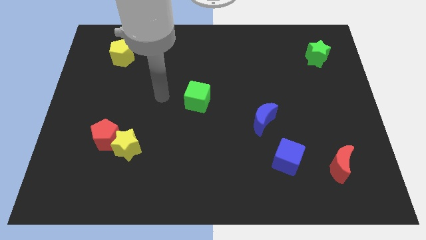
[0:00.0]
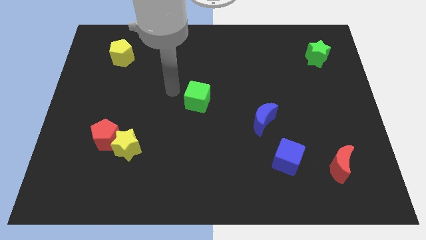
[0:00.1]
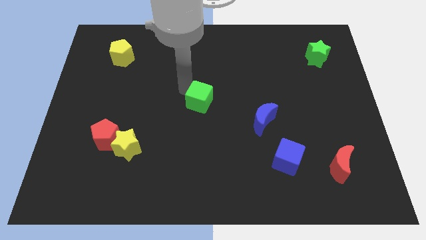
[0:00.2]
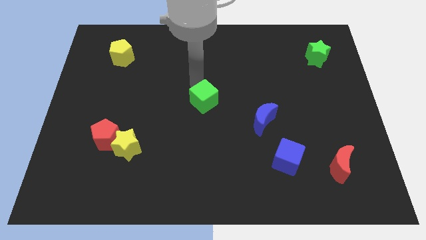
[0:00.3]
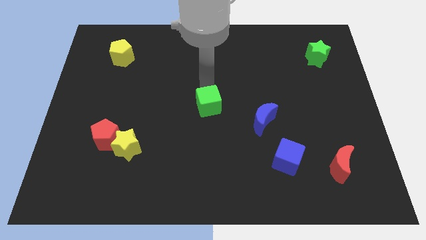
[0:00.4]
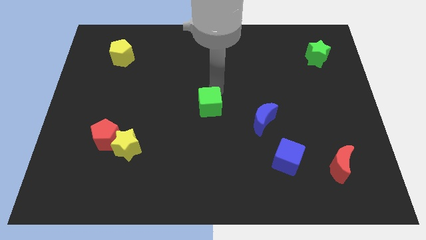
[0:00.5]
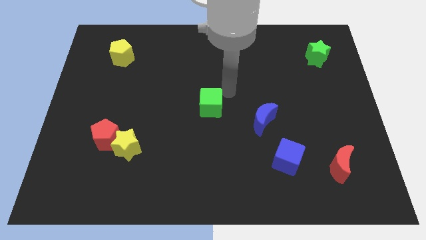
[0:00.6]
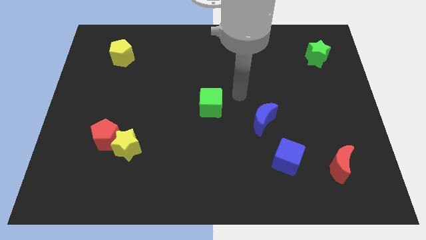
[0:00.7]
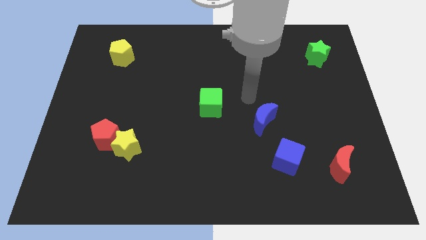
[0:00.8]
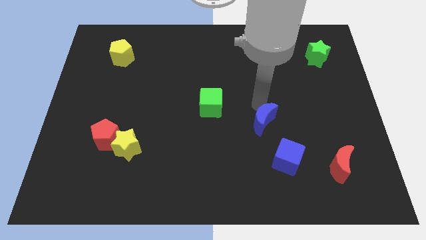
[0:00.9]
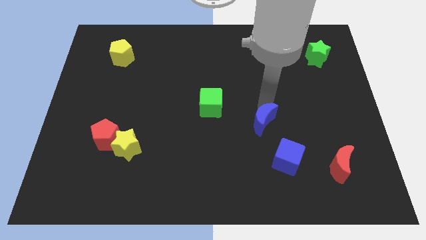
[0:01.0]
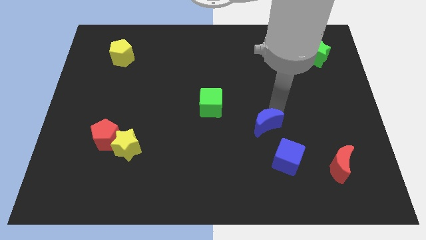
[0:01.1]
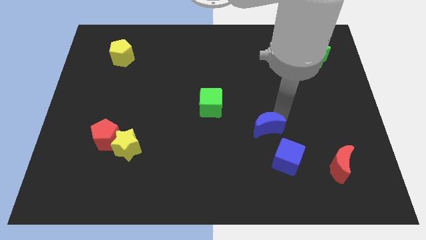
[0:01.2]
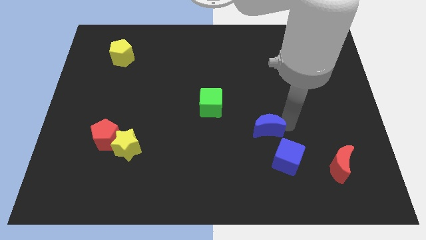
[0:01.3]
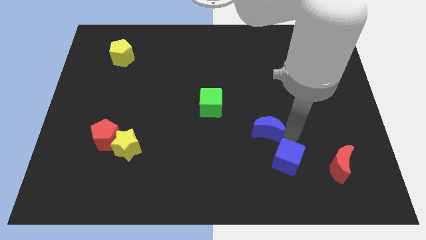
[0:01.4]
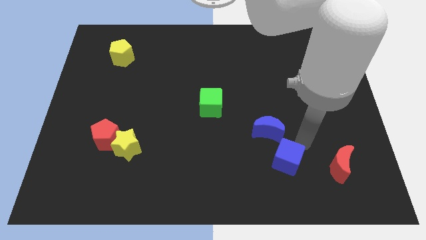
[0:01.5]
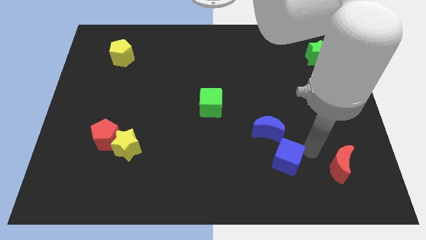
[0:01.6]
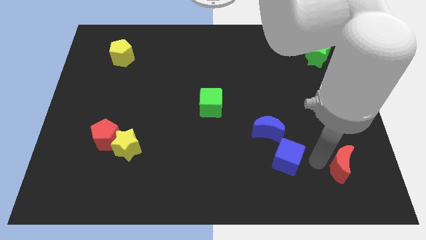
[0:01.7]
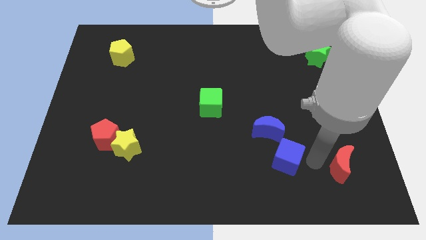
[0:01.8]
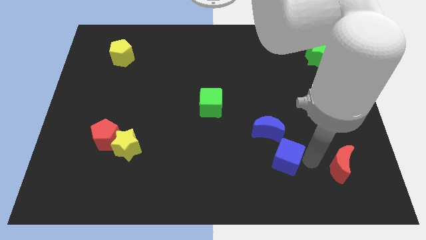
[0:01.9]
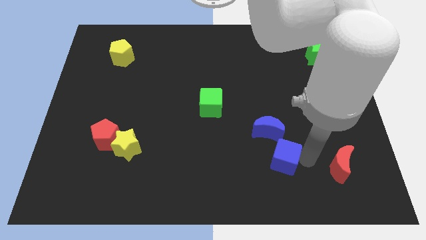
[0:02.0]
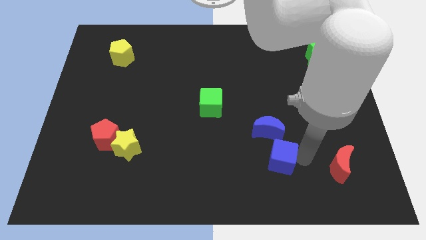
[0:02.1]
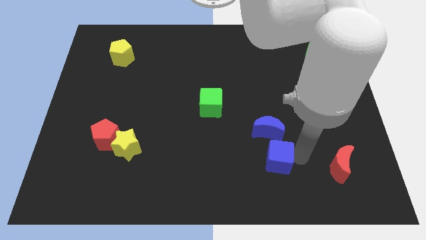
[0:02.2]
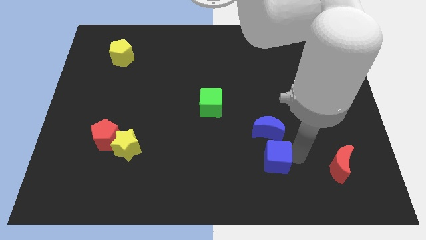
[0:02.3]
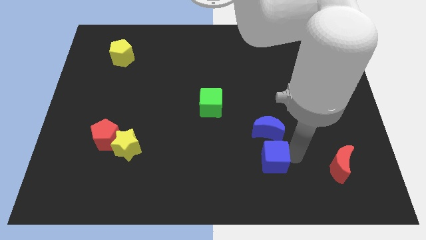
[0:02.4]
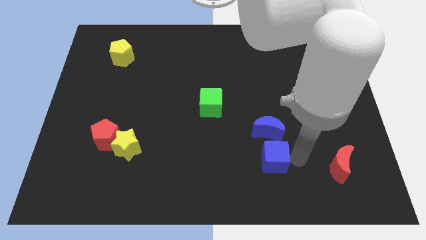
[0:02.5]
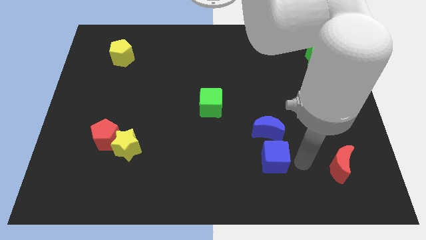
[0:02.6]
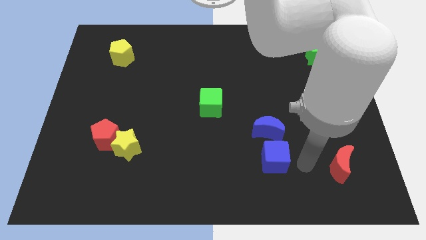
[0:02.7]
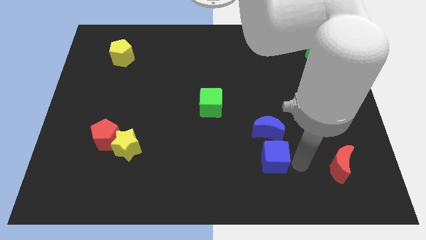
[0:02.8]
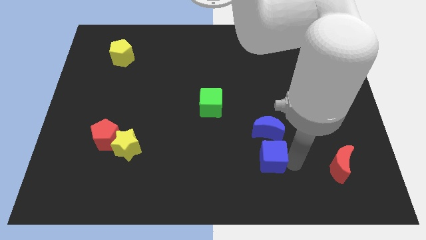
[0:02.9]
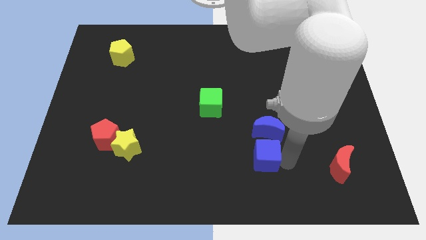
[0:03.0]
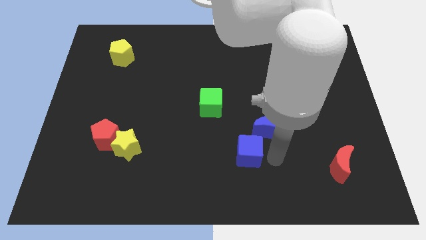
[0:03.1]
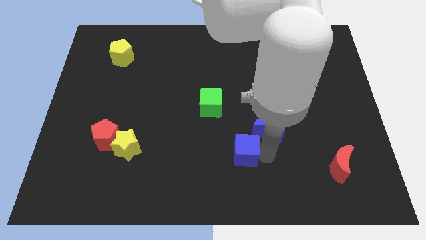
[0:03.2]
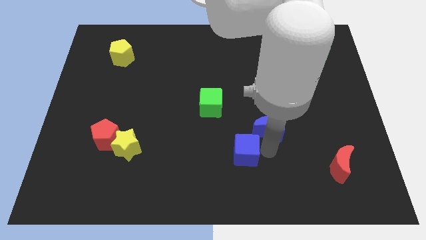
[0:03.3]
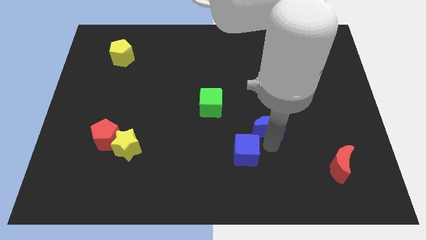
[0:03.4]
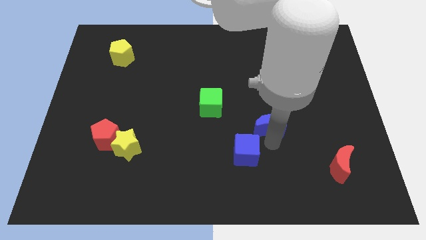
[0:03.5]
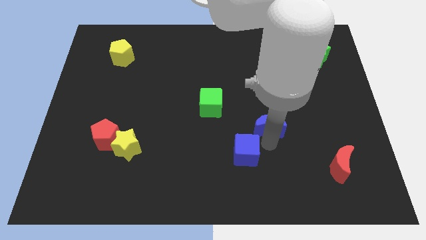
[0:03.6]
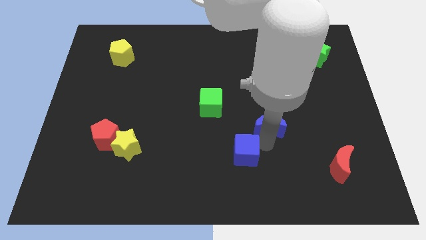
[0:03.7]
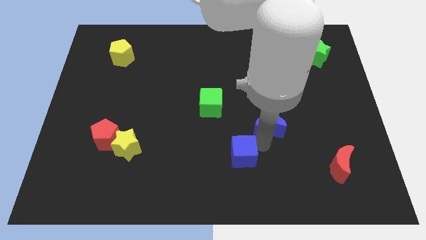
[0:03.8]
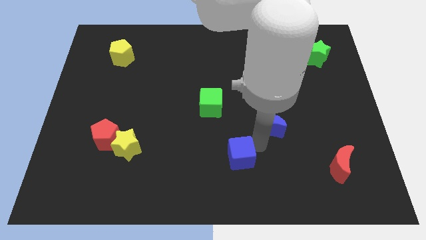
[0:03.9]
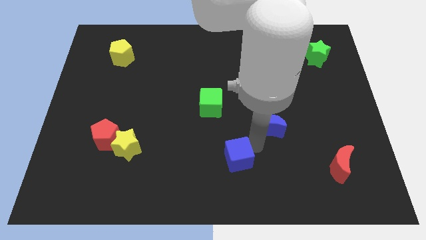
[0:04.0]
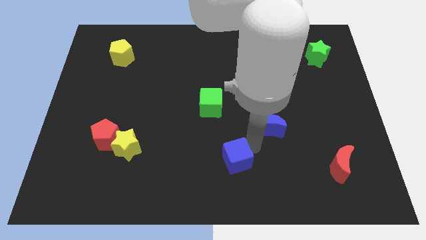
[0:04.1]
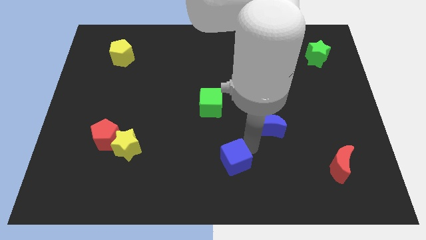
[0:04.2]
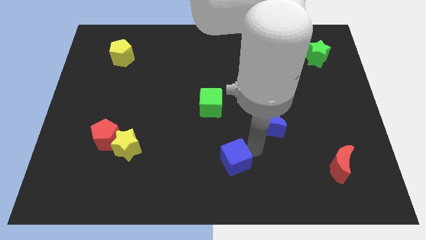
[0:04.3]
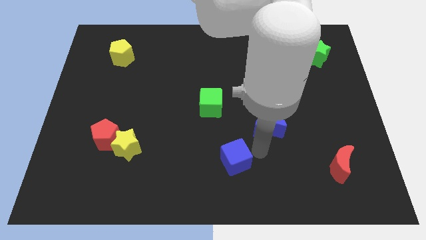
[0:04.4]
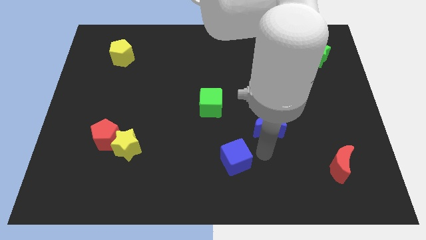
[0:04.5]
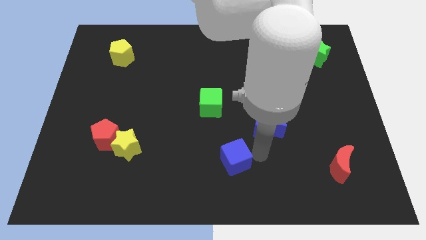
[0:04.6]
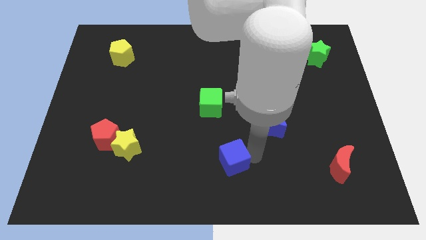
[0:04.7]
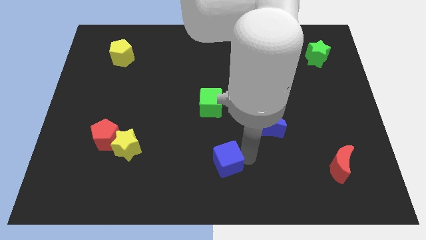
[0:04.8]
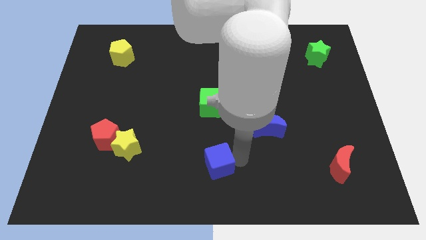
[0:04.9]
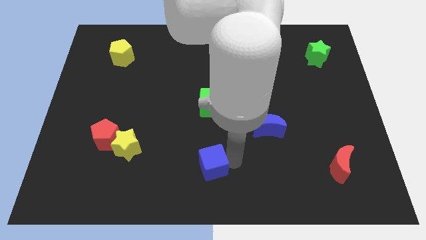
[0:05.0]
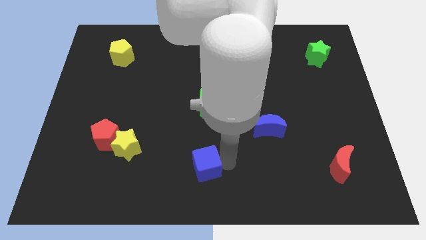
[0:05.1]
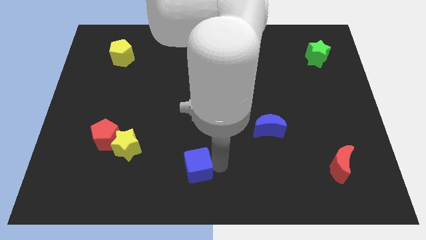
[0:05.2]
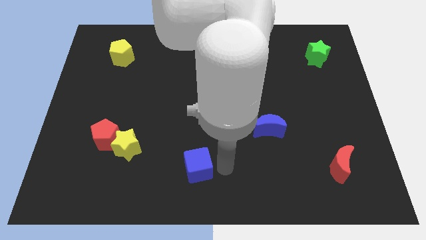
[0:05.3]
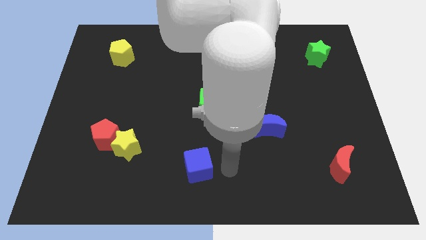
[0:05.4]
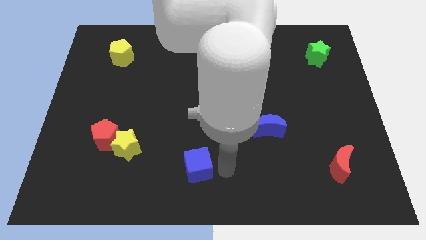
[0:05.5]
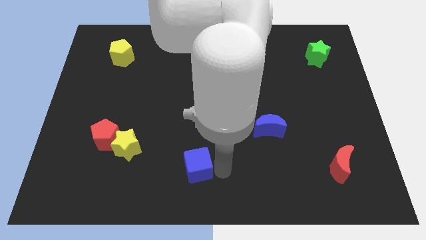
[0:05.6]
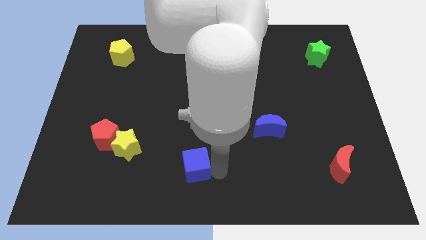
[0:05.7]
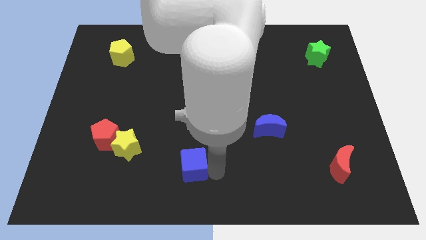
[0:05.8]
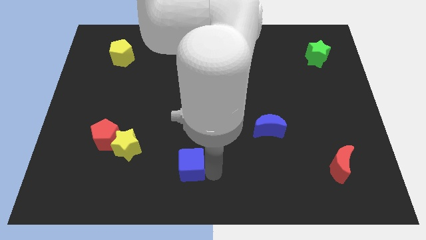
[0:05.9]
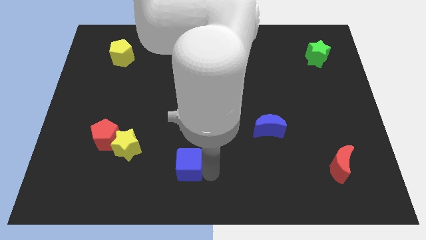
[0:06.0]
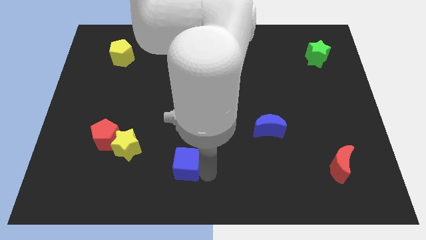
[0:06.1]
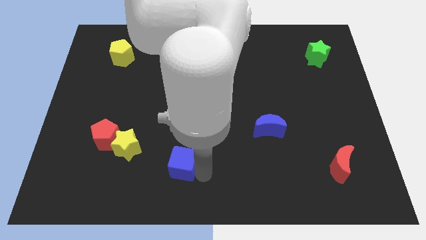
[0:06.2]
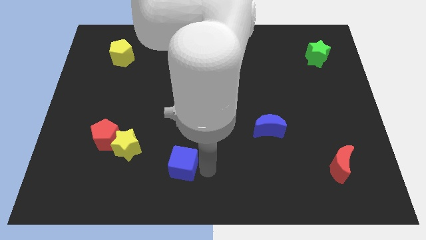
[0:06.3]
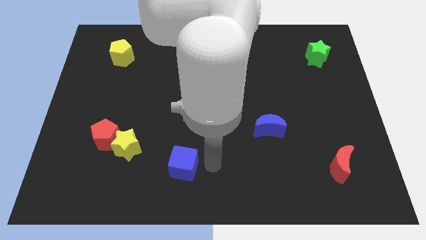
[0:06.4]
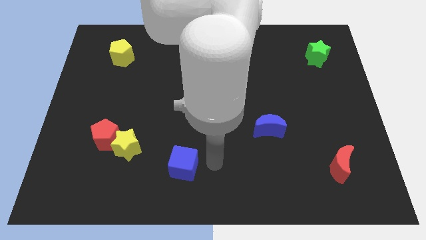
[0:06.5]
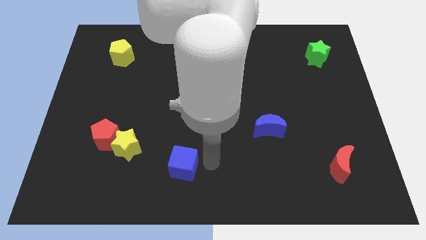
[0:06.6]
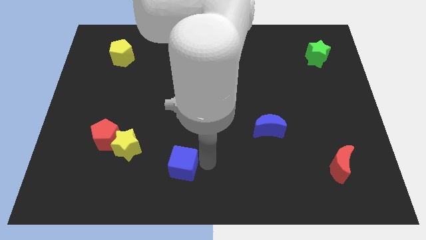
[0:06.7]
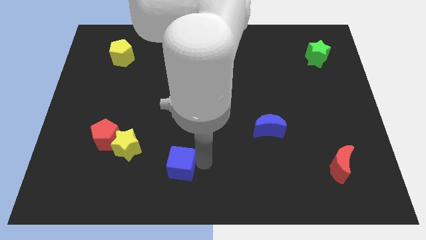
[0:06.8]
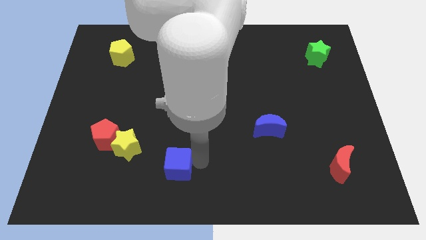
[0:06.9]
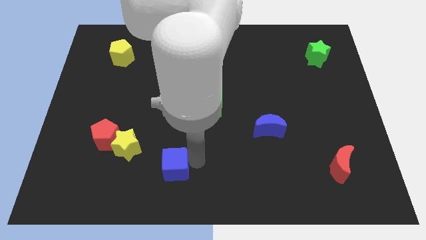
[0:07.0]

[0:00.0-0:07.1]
push the blue cube diagonally down and to the right of the yellow star
